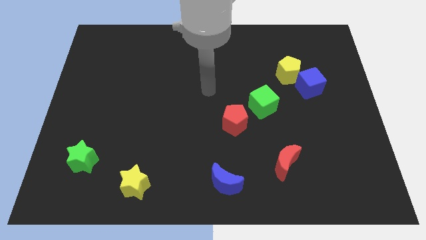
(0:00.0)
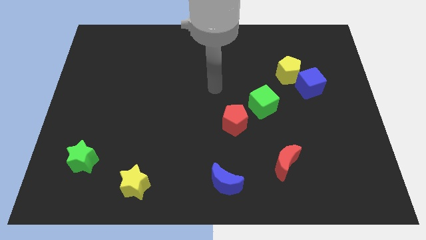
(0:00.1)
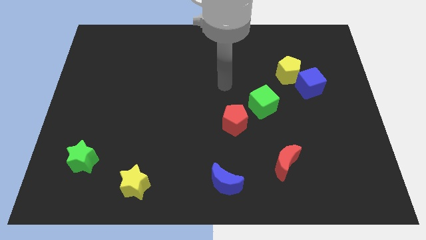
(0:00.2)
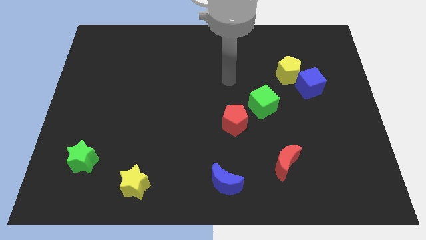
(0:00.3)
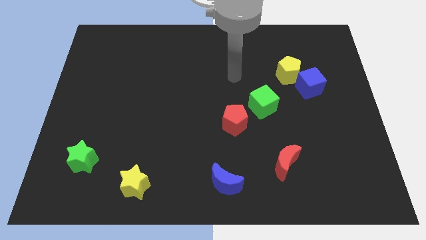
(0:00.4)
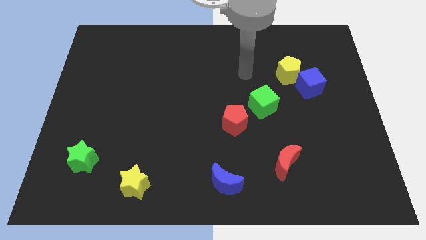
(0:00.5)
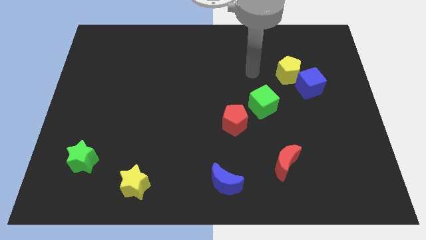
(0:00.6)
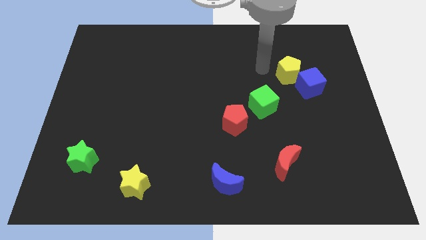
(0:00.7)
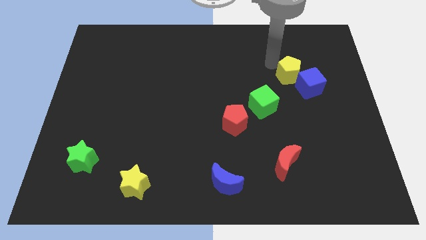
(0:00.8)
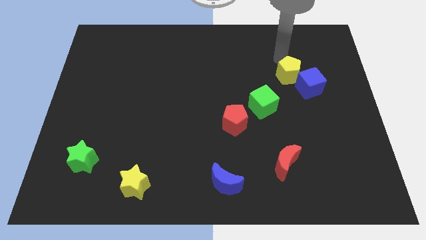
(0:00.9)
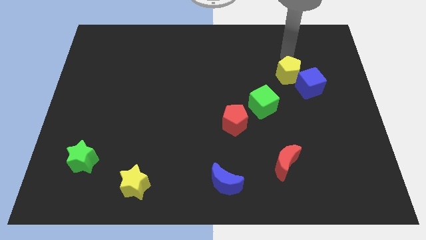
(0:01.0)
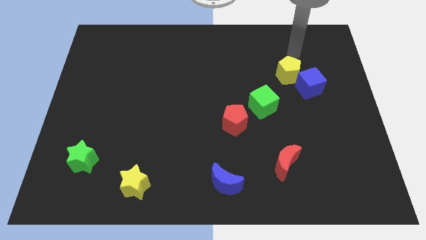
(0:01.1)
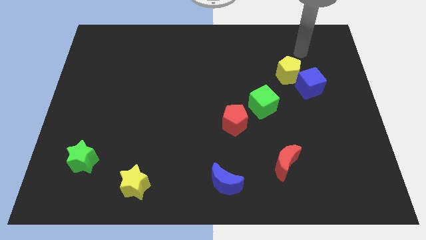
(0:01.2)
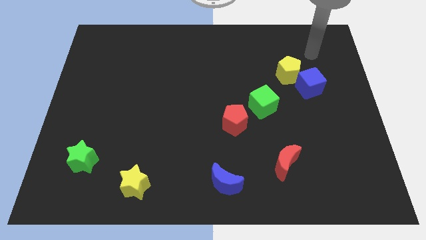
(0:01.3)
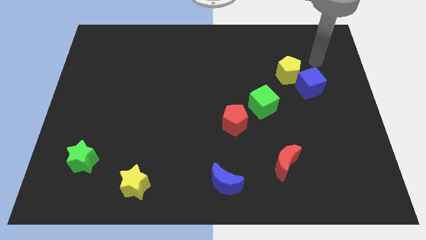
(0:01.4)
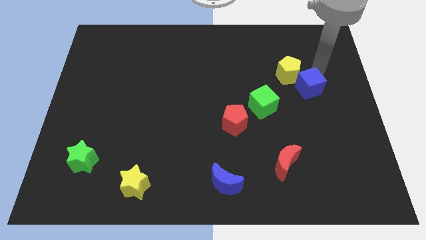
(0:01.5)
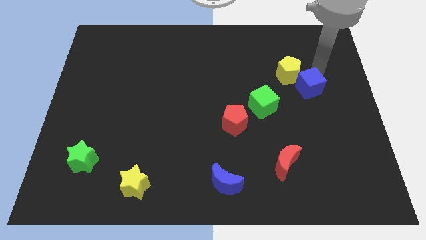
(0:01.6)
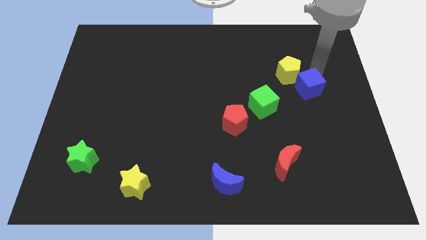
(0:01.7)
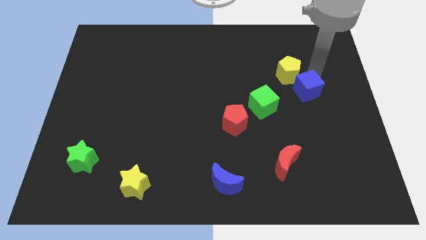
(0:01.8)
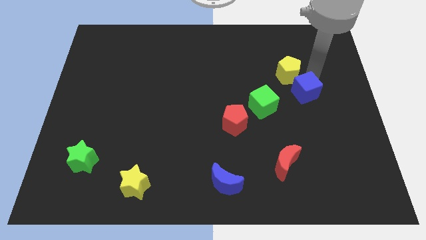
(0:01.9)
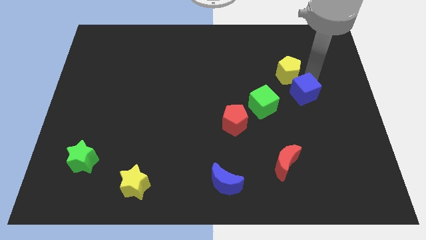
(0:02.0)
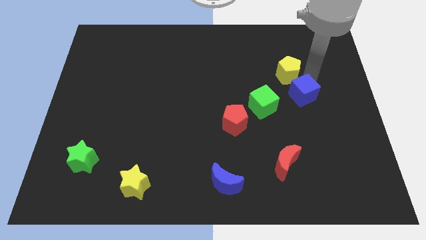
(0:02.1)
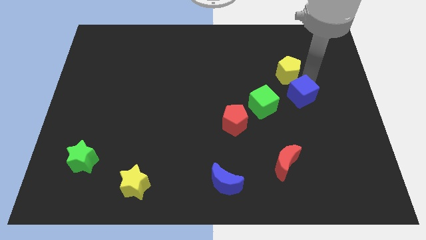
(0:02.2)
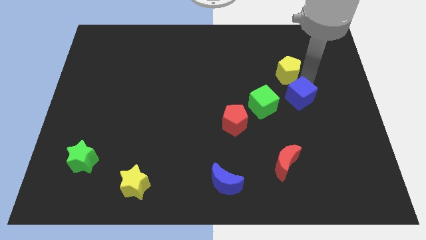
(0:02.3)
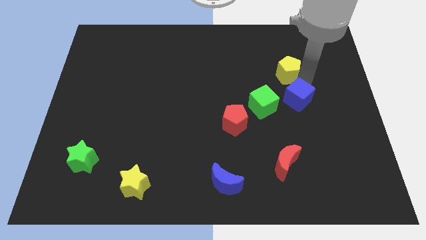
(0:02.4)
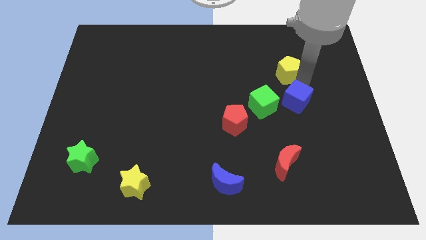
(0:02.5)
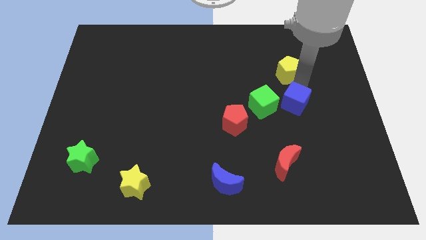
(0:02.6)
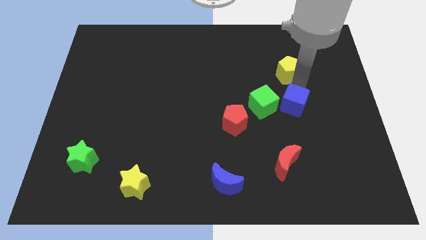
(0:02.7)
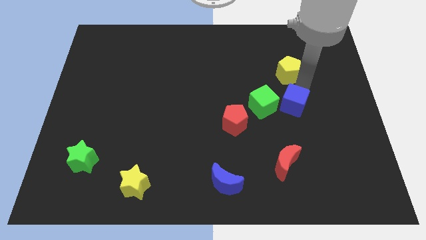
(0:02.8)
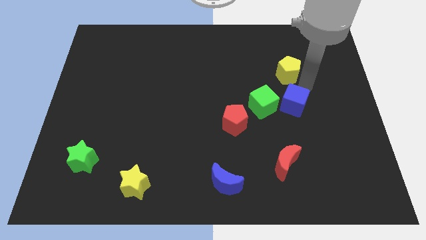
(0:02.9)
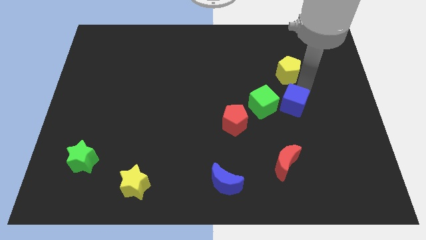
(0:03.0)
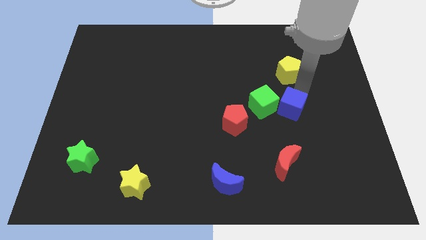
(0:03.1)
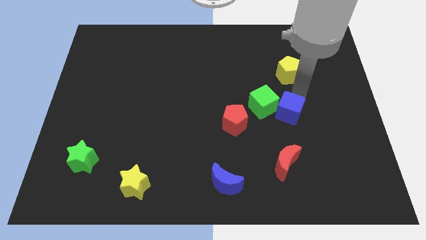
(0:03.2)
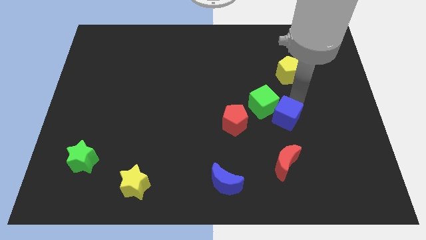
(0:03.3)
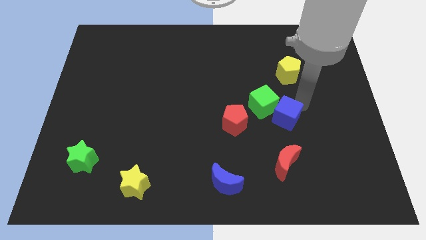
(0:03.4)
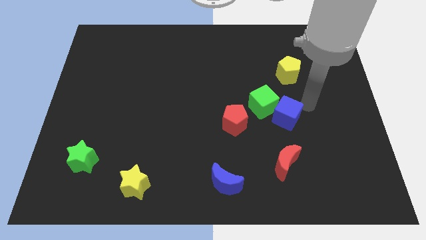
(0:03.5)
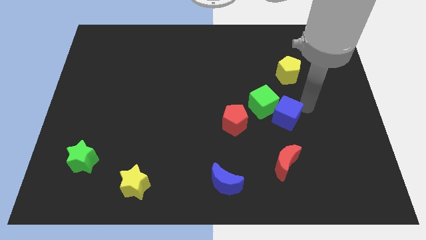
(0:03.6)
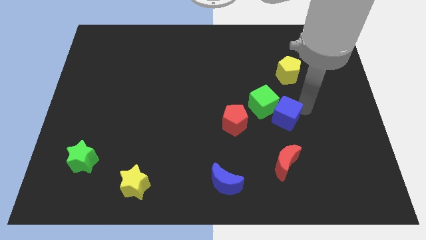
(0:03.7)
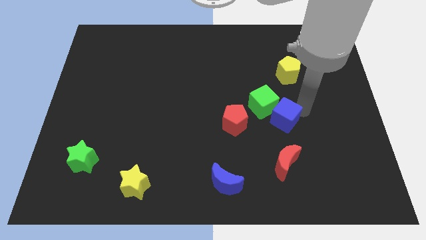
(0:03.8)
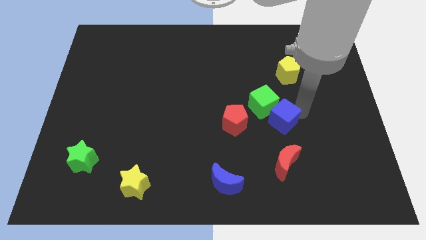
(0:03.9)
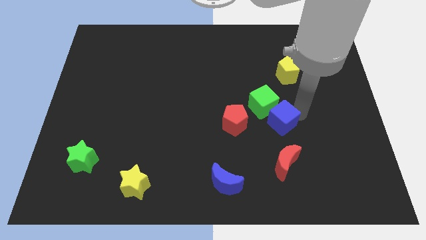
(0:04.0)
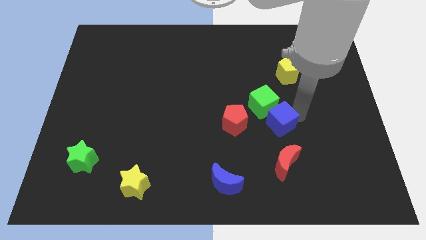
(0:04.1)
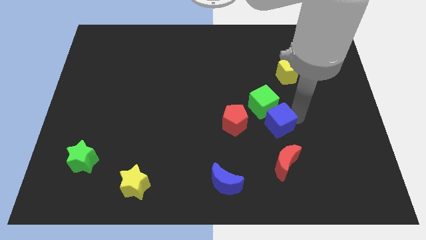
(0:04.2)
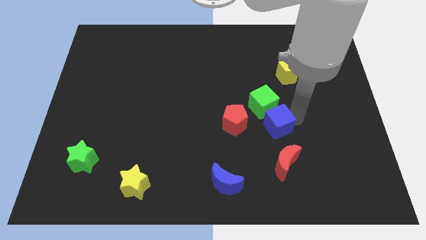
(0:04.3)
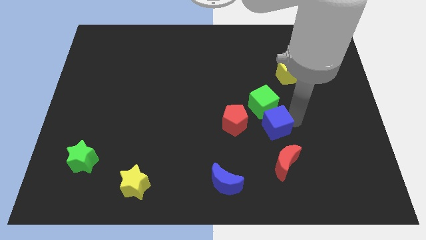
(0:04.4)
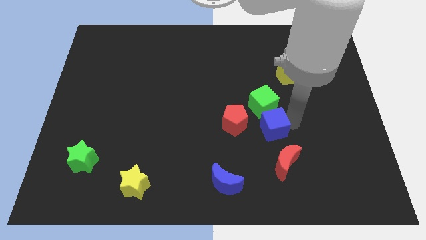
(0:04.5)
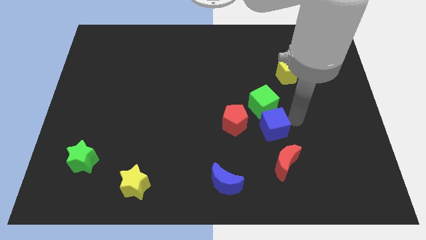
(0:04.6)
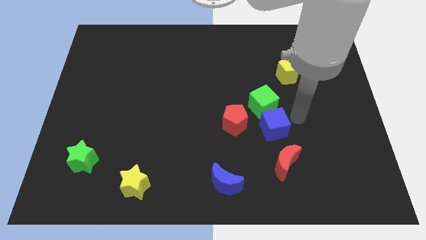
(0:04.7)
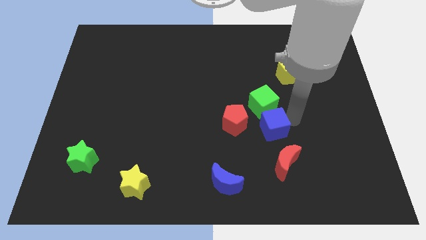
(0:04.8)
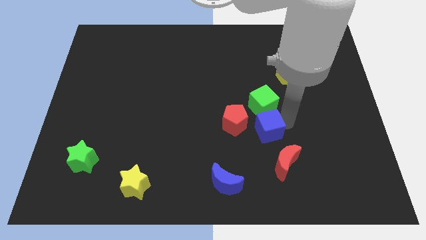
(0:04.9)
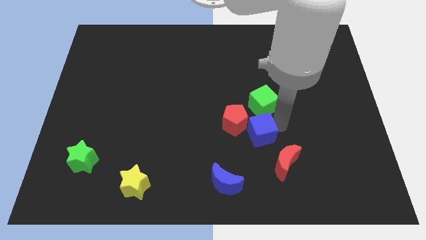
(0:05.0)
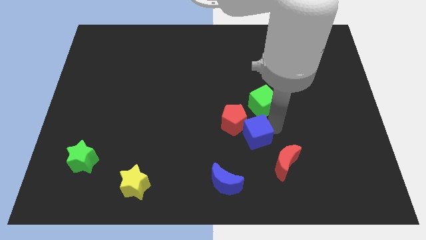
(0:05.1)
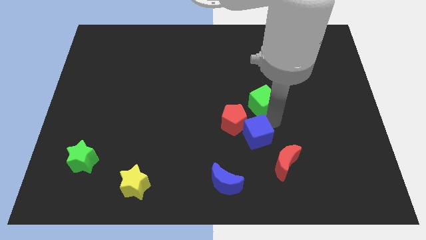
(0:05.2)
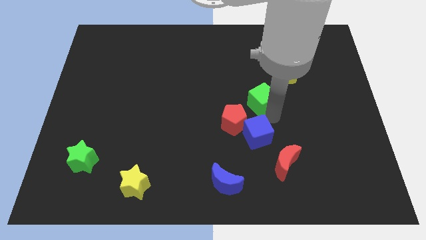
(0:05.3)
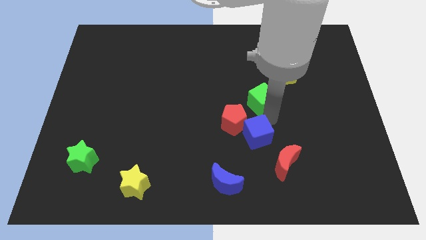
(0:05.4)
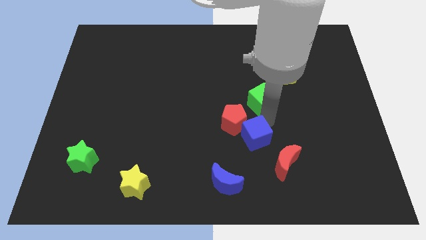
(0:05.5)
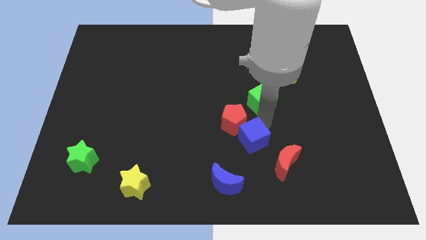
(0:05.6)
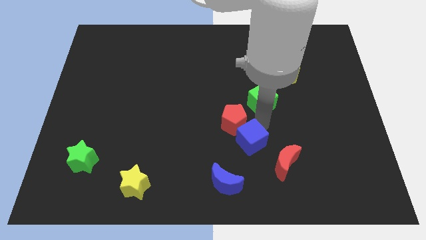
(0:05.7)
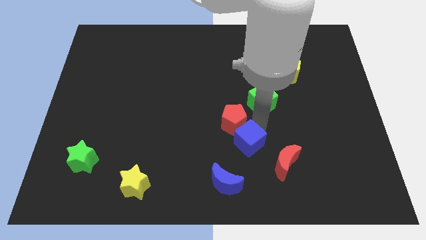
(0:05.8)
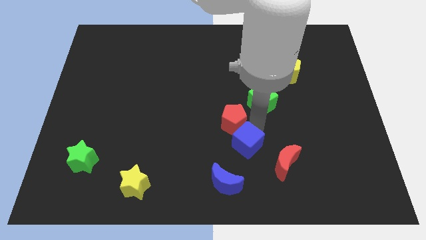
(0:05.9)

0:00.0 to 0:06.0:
put the blue cube left of the red moon

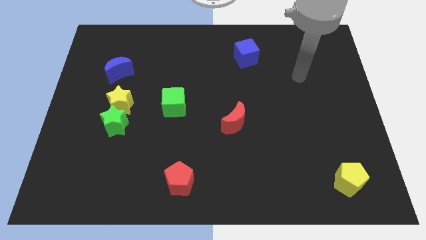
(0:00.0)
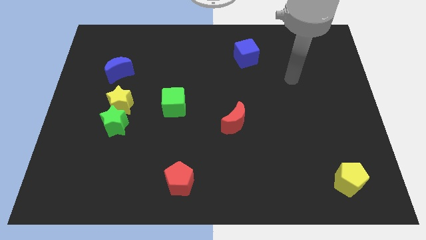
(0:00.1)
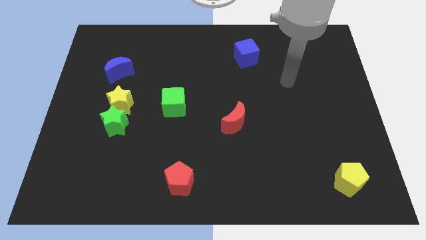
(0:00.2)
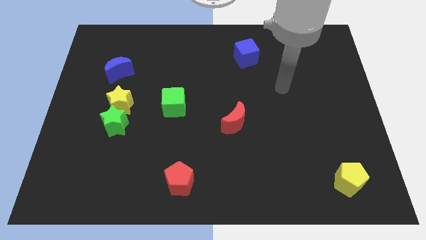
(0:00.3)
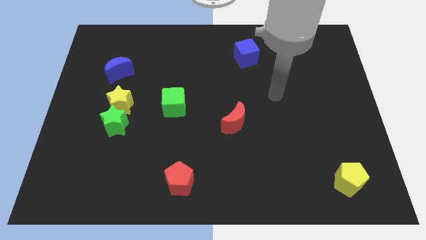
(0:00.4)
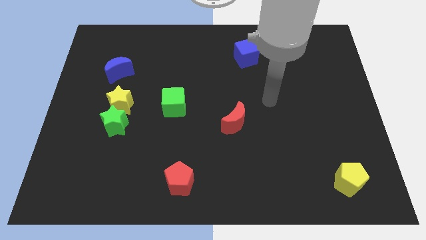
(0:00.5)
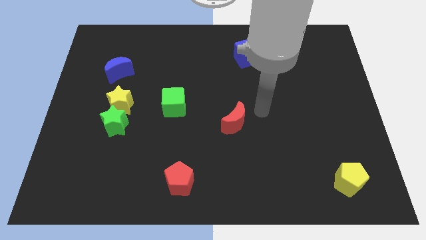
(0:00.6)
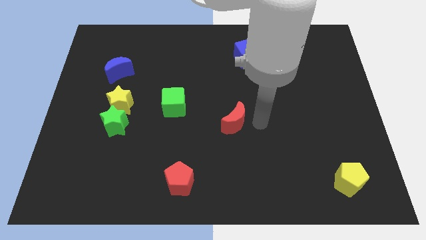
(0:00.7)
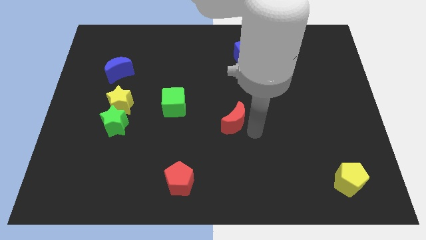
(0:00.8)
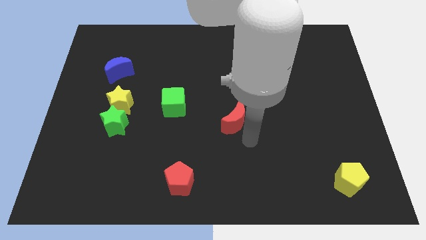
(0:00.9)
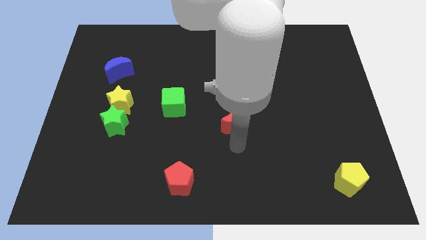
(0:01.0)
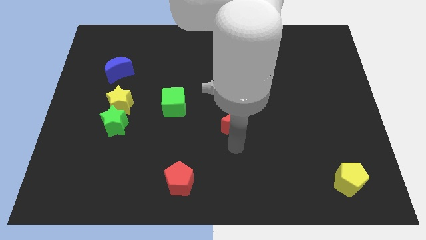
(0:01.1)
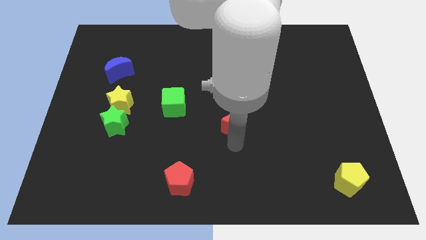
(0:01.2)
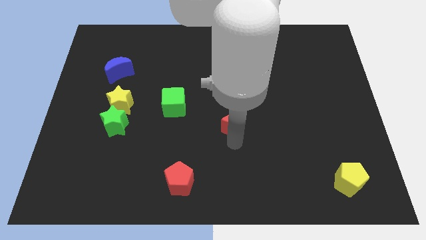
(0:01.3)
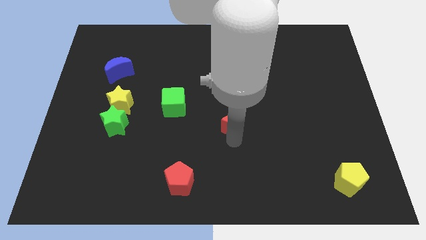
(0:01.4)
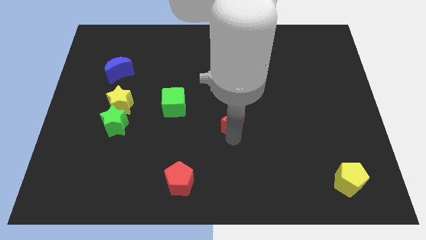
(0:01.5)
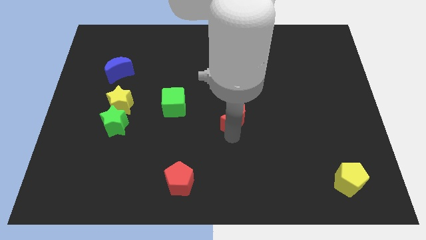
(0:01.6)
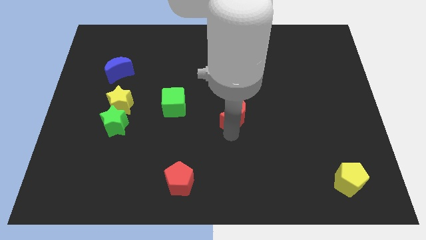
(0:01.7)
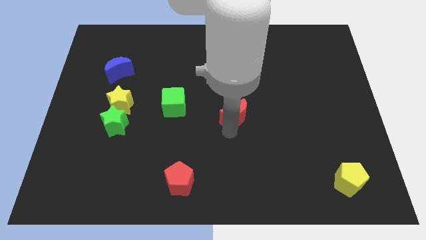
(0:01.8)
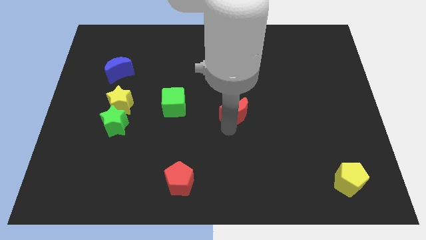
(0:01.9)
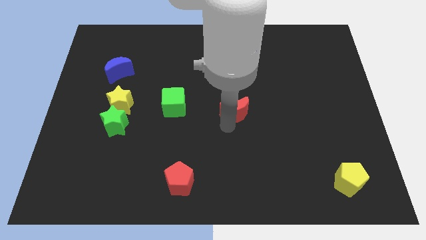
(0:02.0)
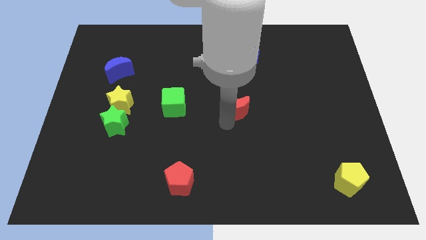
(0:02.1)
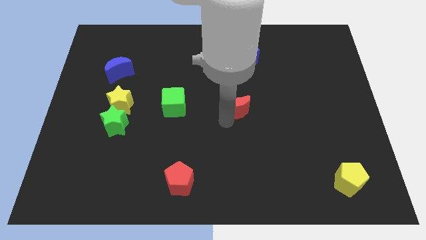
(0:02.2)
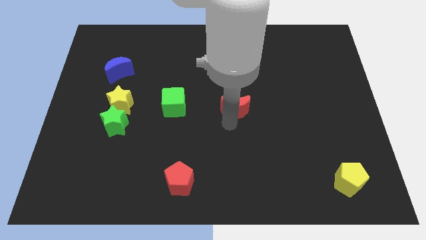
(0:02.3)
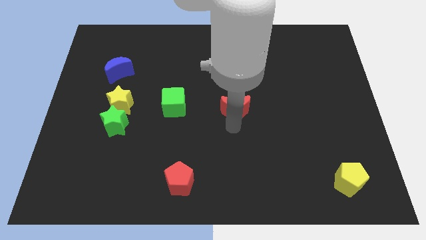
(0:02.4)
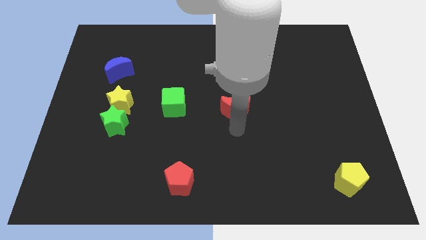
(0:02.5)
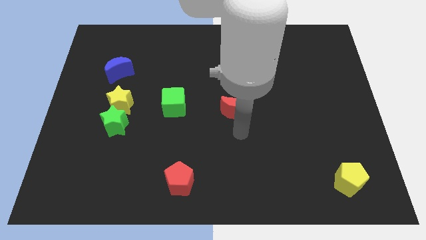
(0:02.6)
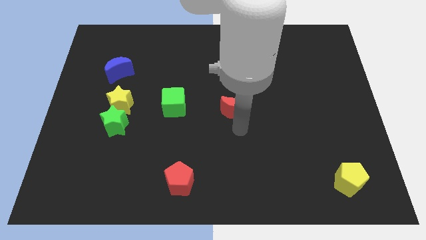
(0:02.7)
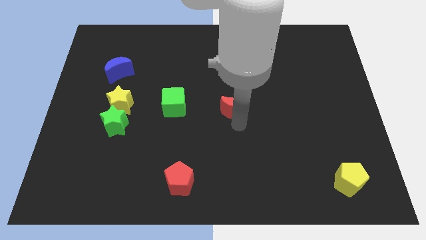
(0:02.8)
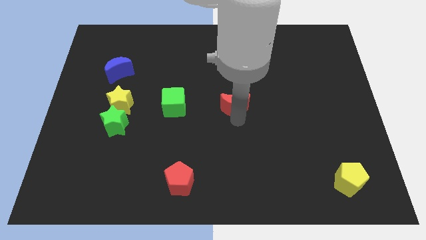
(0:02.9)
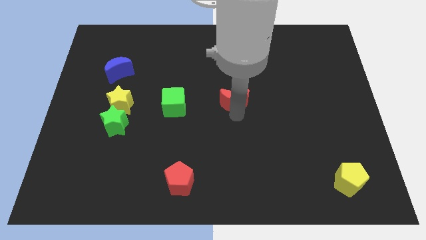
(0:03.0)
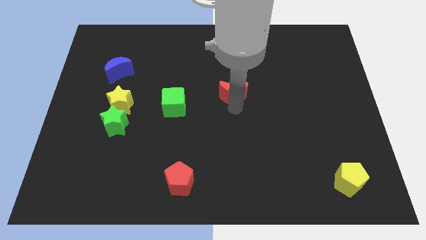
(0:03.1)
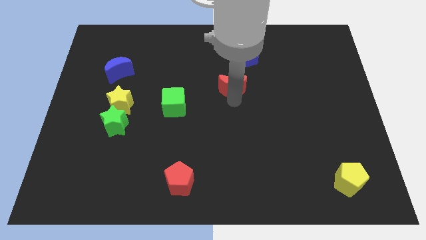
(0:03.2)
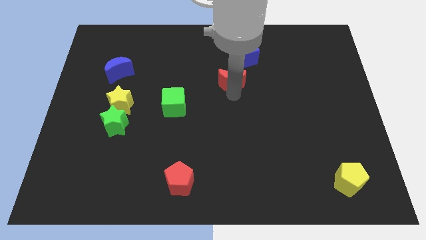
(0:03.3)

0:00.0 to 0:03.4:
slide the red moon diagonally down and to the left of the blue cube
